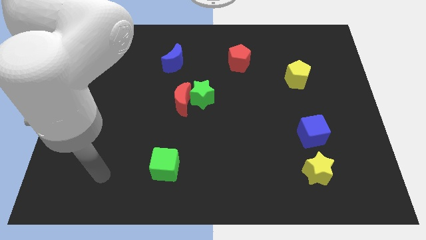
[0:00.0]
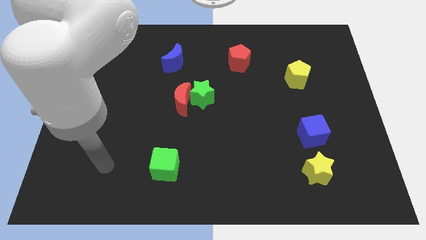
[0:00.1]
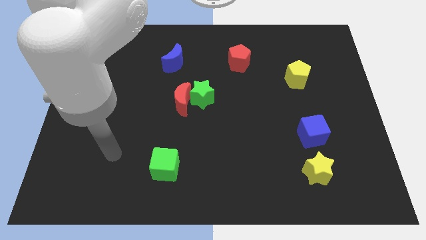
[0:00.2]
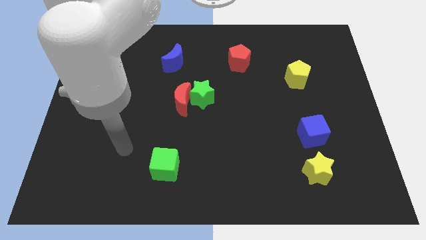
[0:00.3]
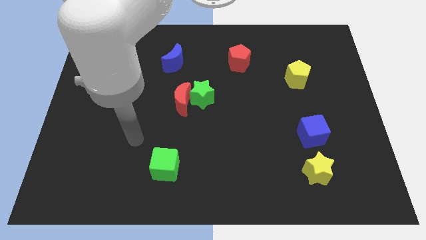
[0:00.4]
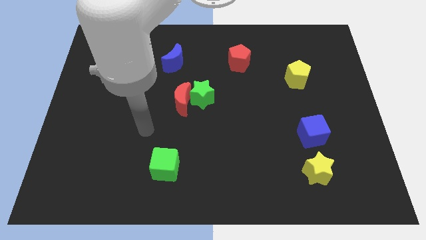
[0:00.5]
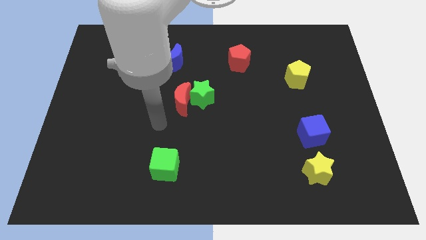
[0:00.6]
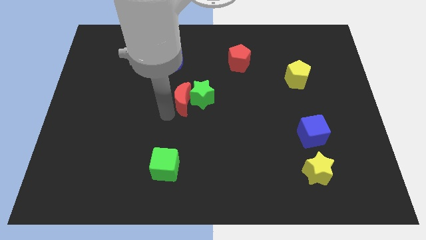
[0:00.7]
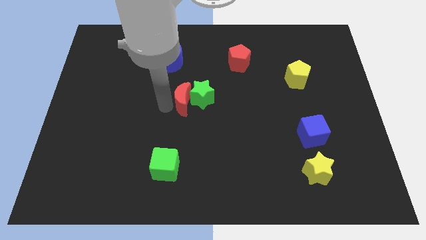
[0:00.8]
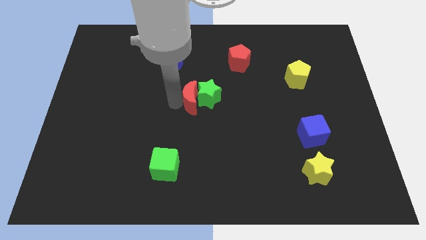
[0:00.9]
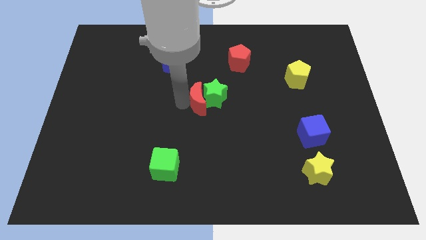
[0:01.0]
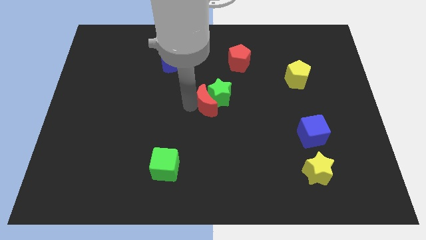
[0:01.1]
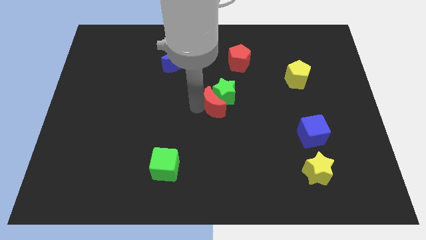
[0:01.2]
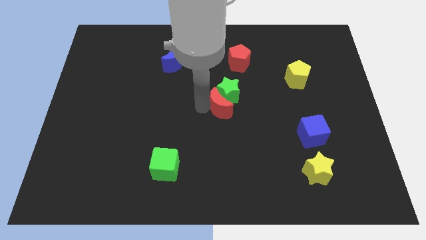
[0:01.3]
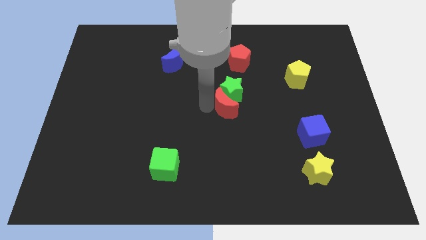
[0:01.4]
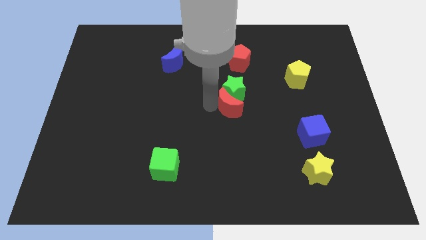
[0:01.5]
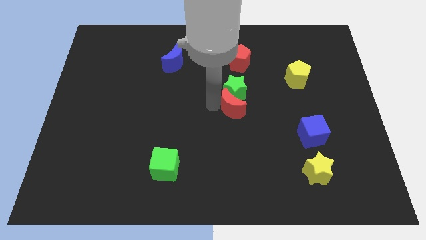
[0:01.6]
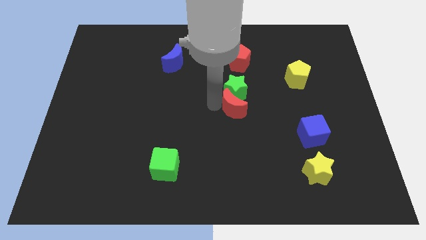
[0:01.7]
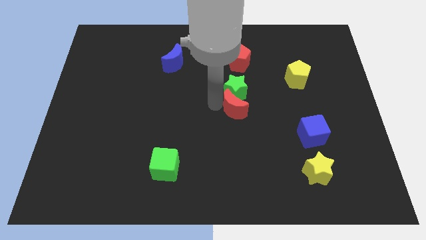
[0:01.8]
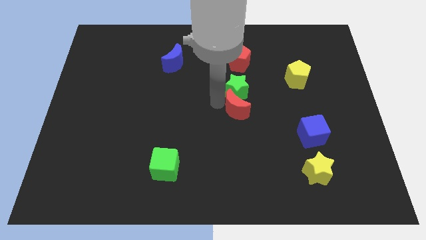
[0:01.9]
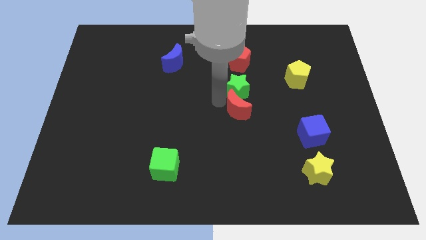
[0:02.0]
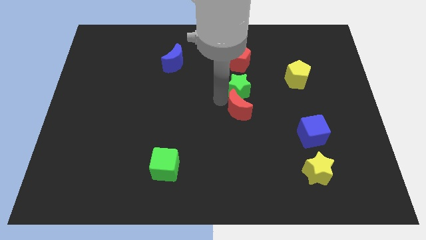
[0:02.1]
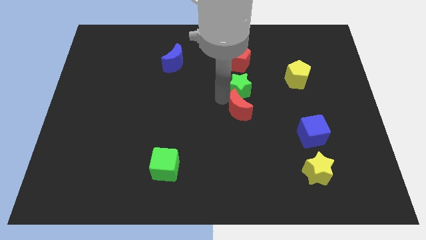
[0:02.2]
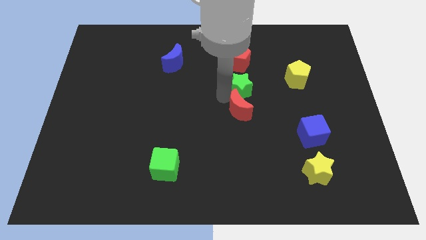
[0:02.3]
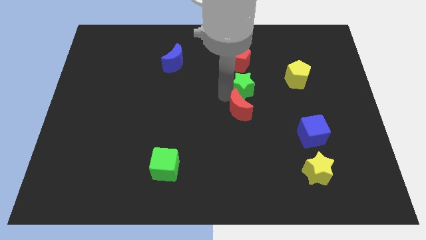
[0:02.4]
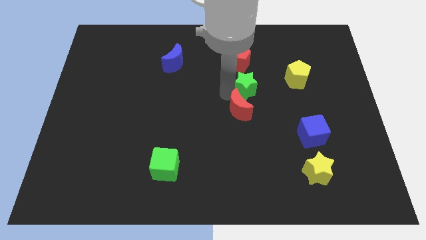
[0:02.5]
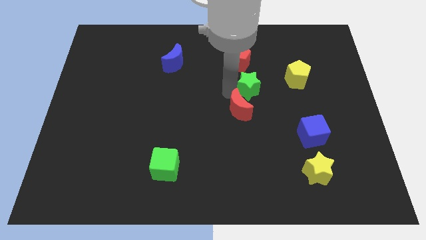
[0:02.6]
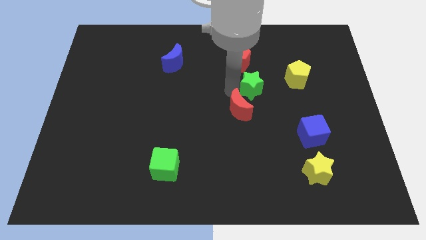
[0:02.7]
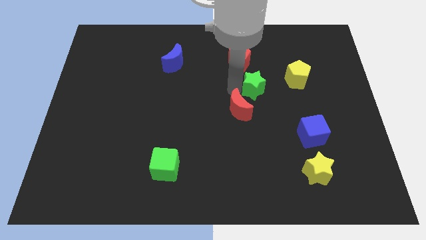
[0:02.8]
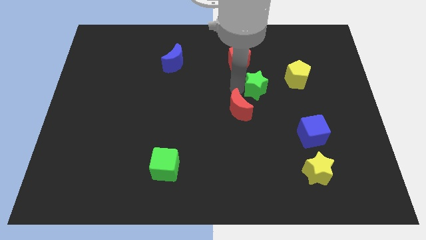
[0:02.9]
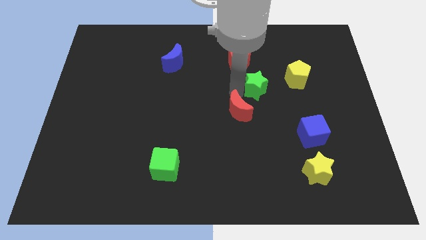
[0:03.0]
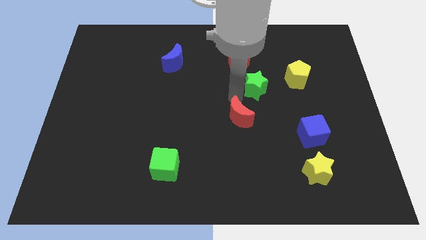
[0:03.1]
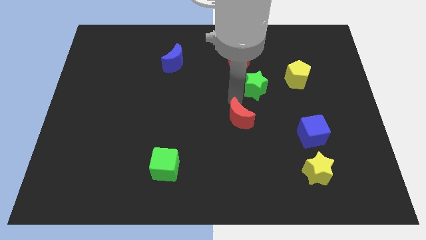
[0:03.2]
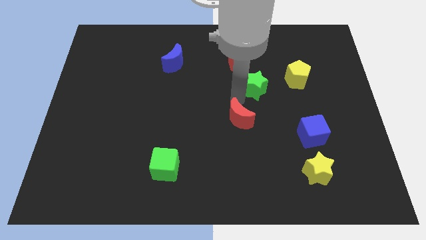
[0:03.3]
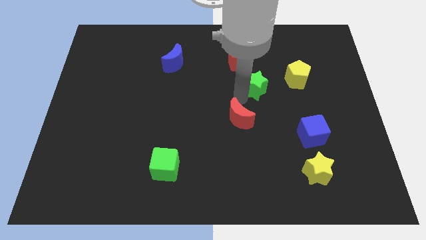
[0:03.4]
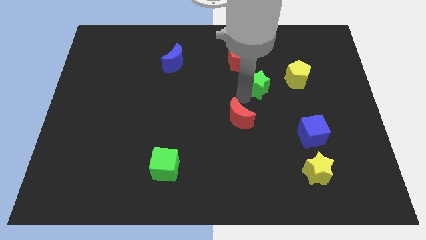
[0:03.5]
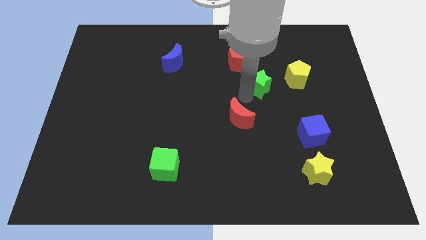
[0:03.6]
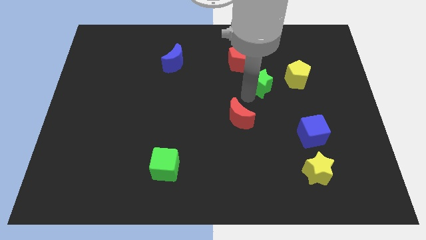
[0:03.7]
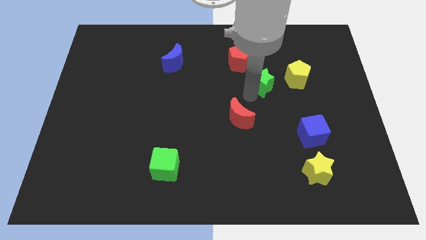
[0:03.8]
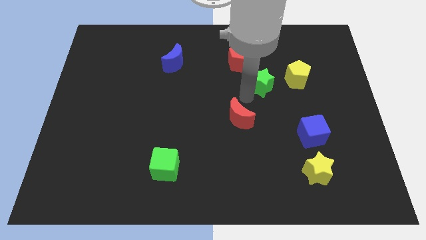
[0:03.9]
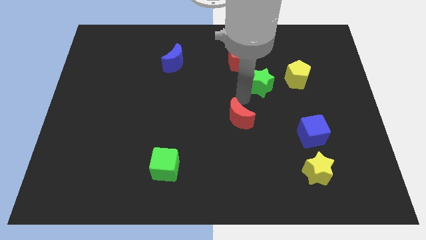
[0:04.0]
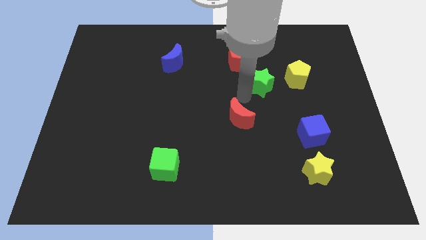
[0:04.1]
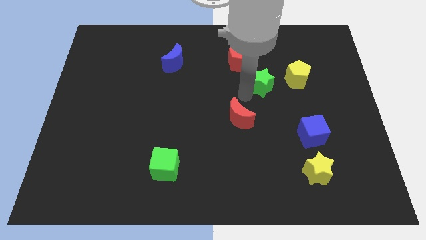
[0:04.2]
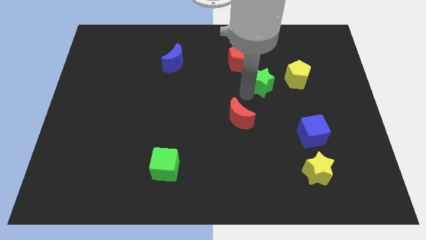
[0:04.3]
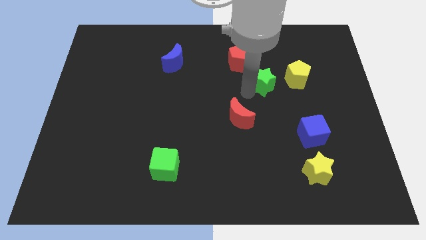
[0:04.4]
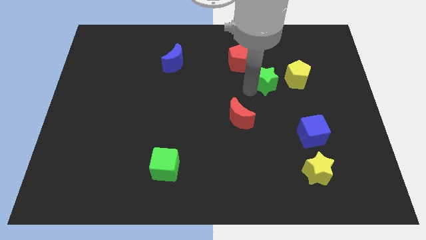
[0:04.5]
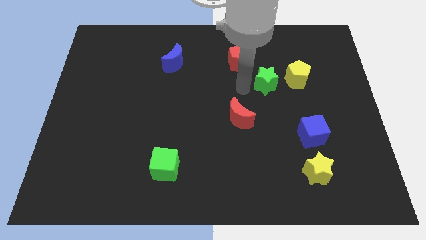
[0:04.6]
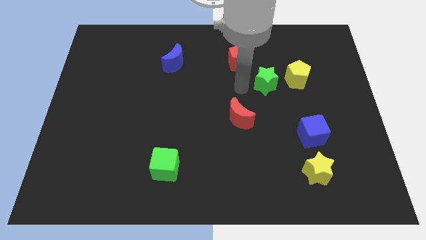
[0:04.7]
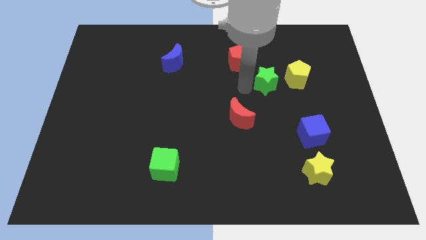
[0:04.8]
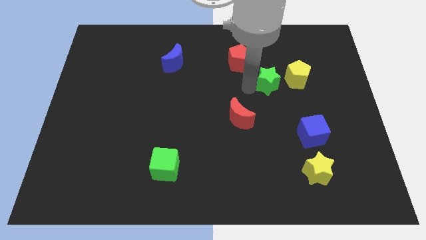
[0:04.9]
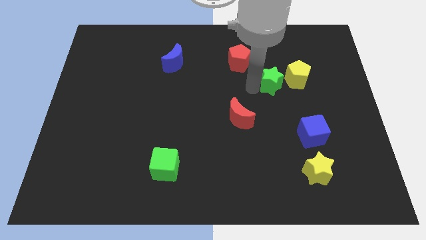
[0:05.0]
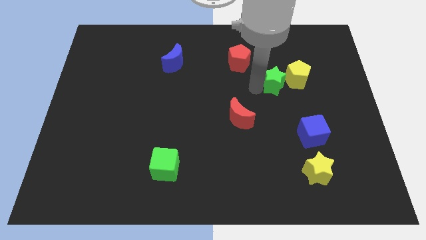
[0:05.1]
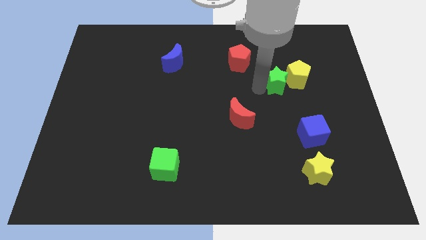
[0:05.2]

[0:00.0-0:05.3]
slide the green star towards the yellow pentagon

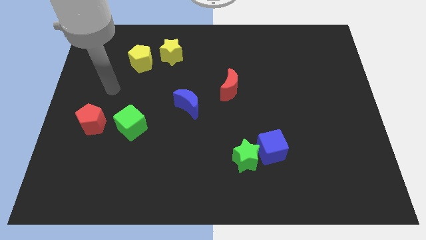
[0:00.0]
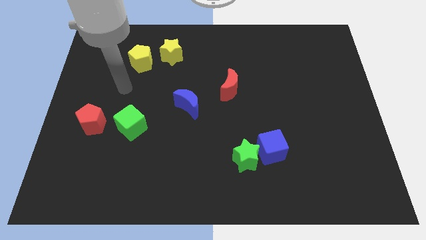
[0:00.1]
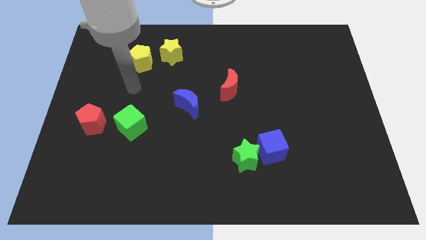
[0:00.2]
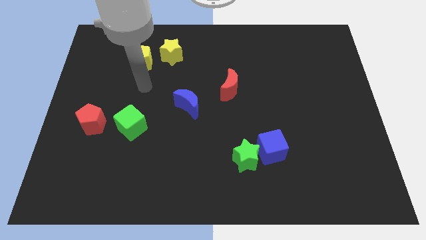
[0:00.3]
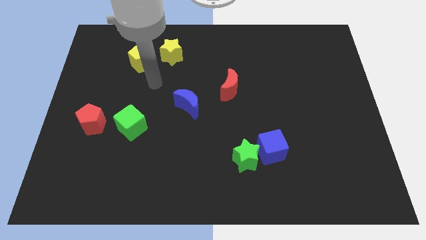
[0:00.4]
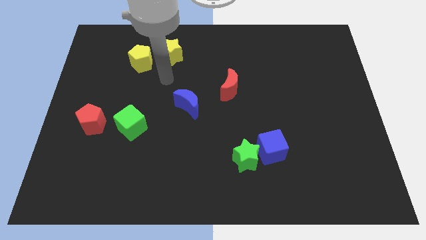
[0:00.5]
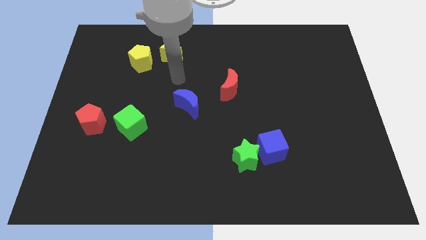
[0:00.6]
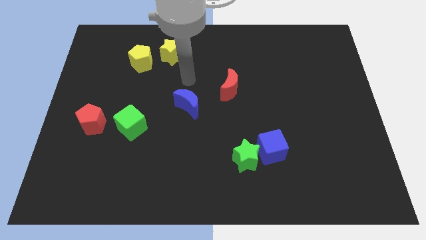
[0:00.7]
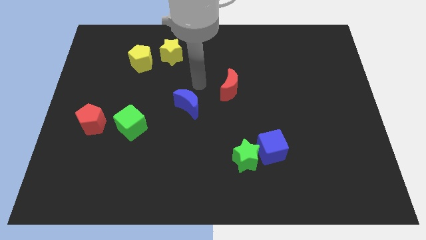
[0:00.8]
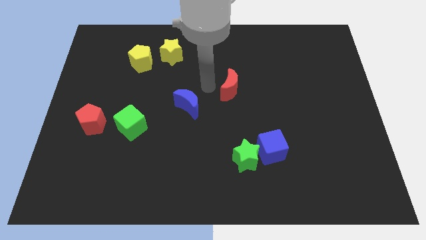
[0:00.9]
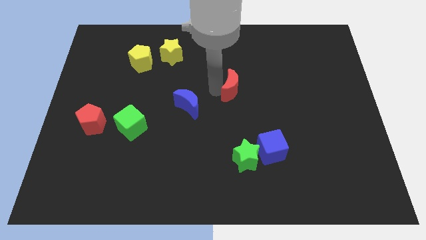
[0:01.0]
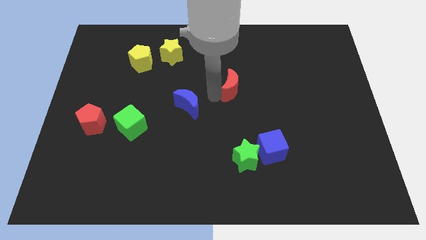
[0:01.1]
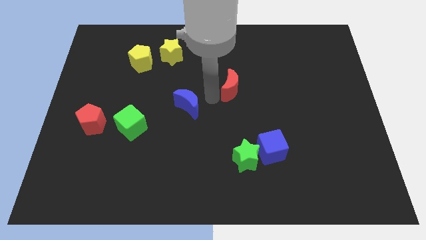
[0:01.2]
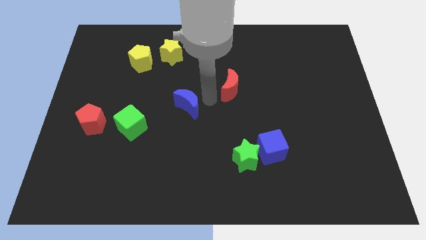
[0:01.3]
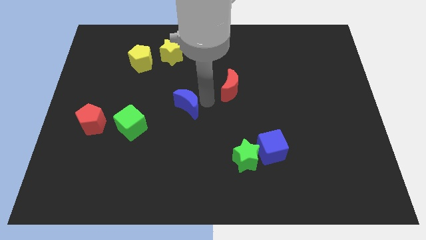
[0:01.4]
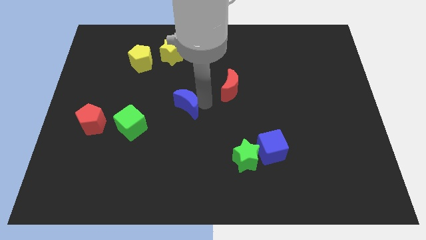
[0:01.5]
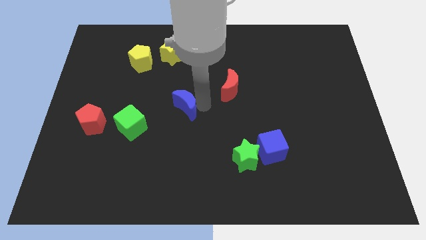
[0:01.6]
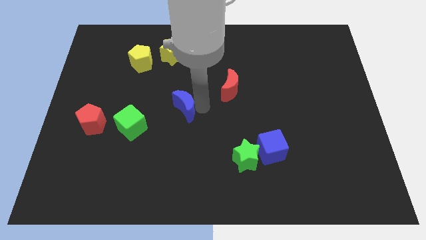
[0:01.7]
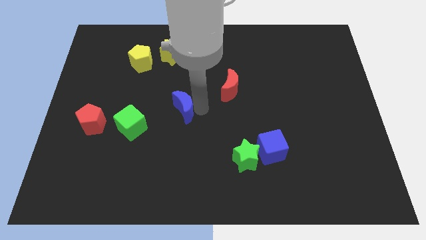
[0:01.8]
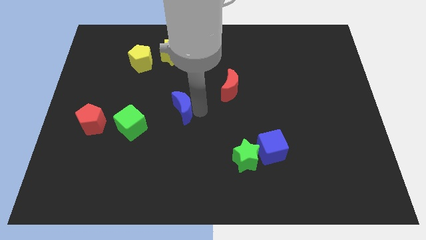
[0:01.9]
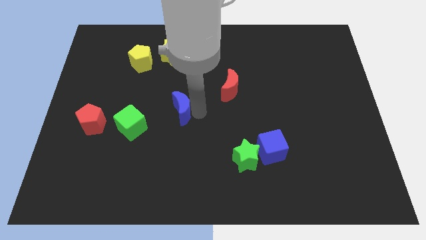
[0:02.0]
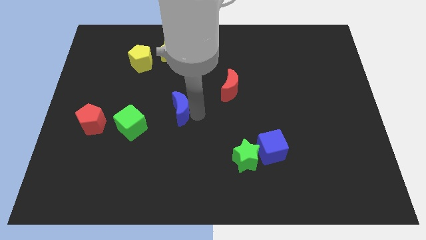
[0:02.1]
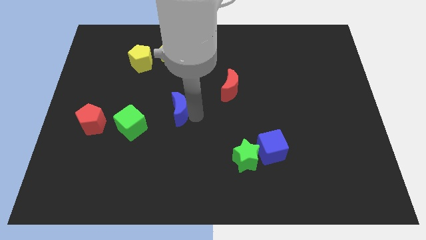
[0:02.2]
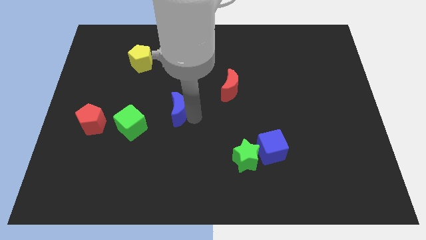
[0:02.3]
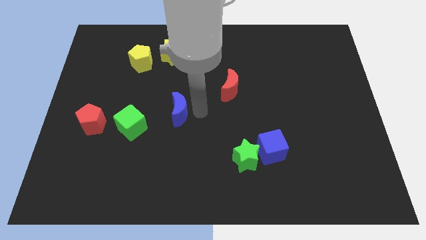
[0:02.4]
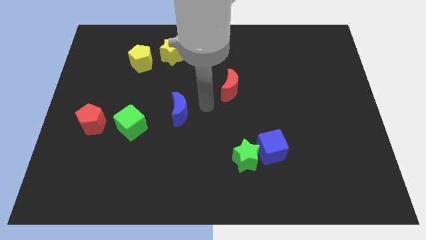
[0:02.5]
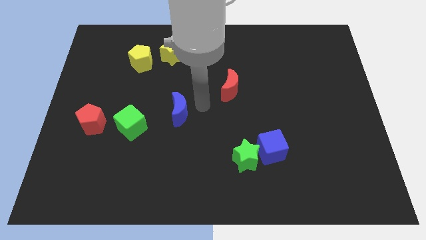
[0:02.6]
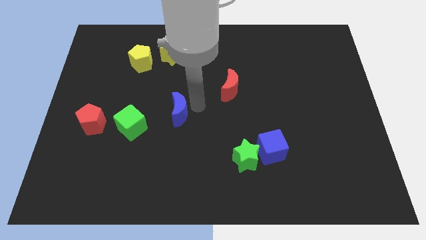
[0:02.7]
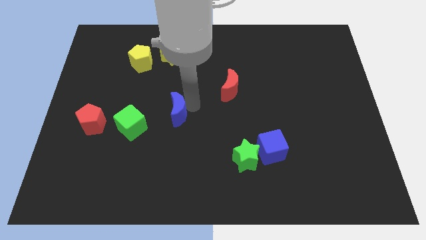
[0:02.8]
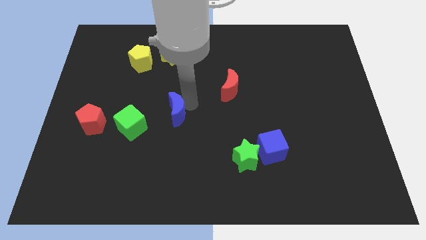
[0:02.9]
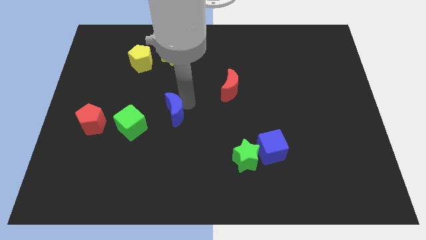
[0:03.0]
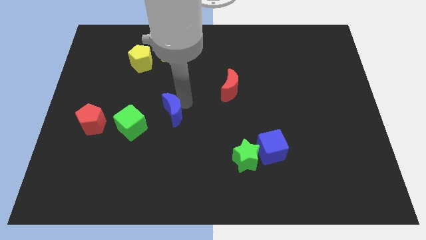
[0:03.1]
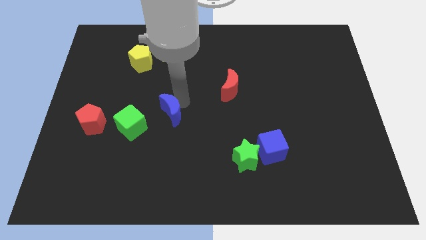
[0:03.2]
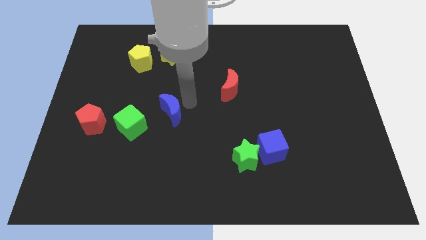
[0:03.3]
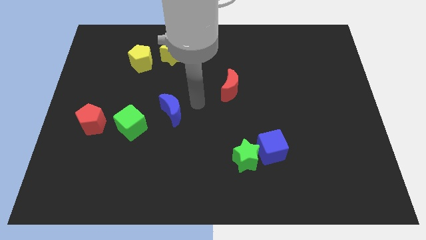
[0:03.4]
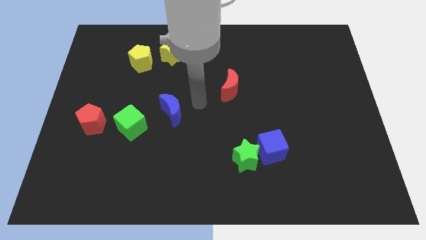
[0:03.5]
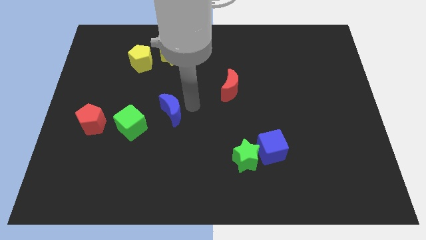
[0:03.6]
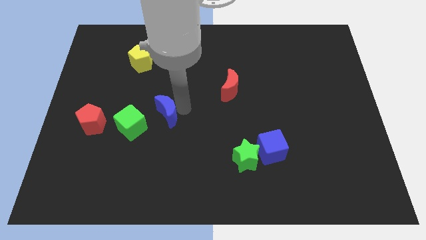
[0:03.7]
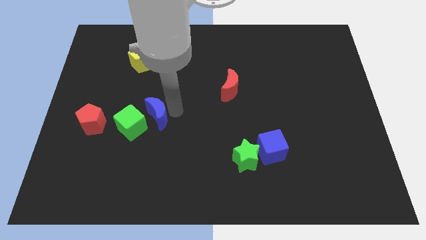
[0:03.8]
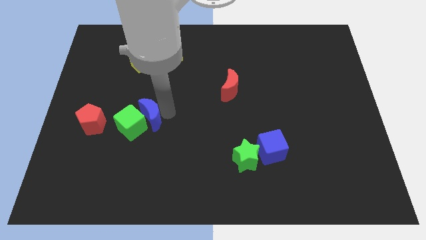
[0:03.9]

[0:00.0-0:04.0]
slide the blue moon next to the green cube
